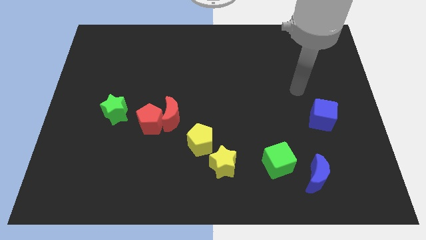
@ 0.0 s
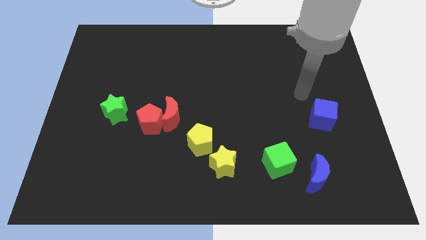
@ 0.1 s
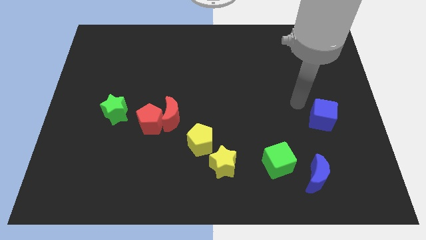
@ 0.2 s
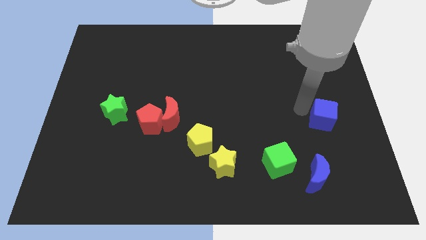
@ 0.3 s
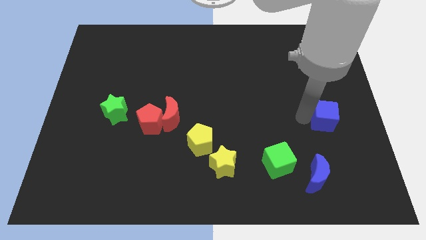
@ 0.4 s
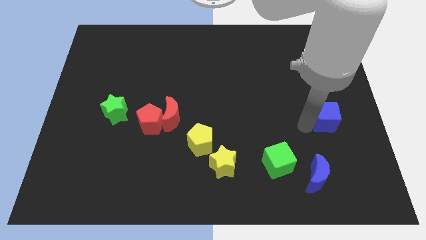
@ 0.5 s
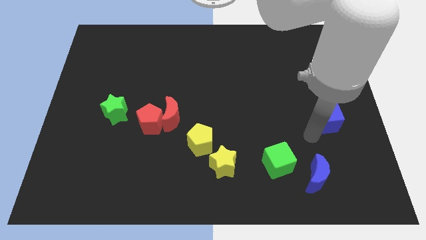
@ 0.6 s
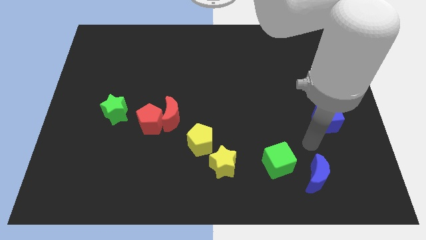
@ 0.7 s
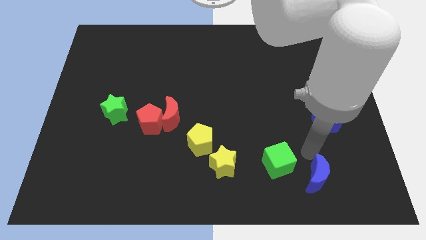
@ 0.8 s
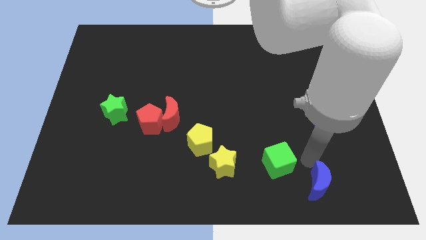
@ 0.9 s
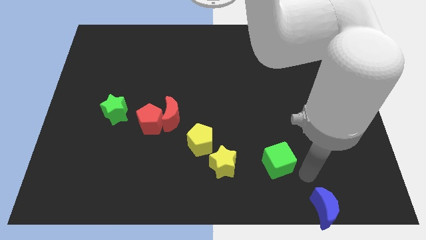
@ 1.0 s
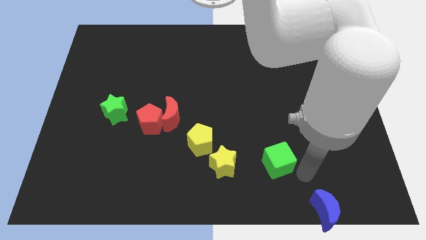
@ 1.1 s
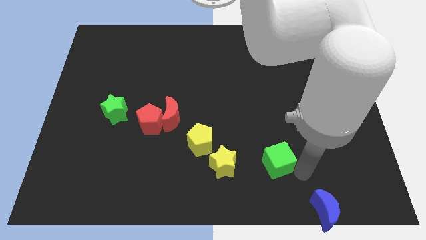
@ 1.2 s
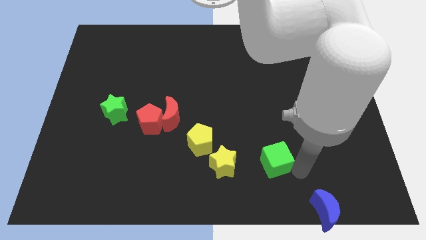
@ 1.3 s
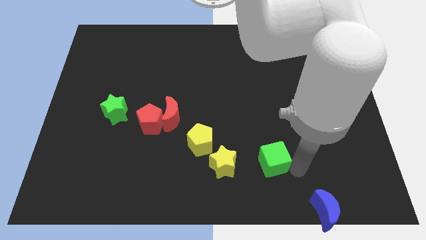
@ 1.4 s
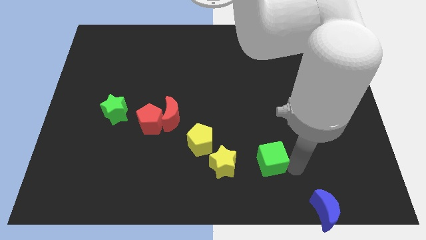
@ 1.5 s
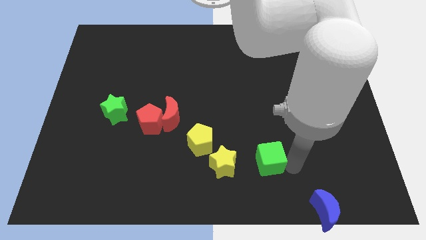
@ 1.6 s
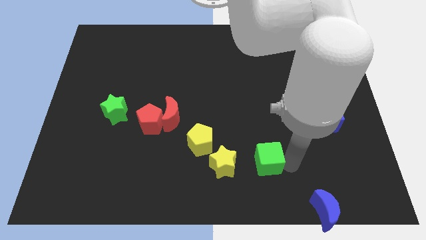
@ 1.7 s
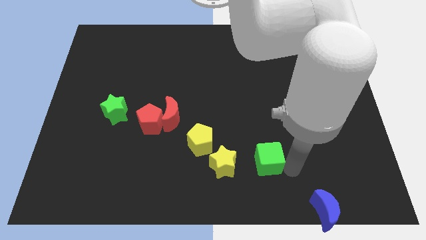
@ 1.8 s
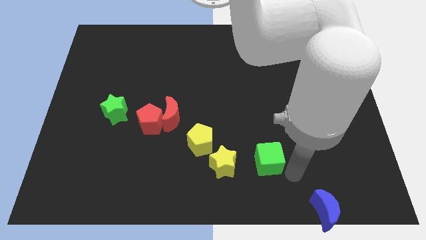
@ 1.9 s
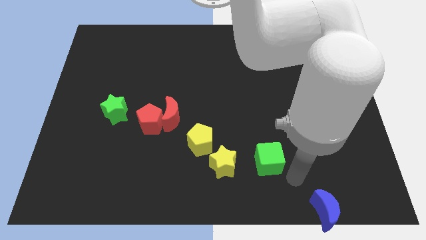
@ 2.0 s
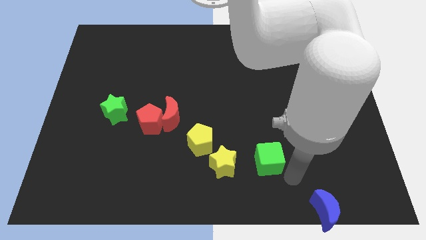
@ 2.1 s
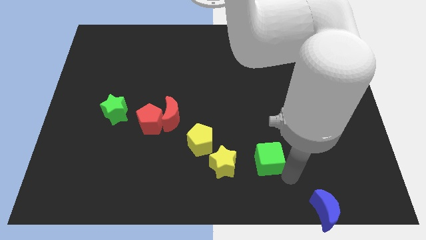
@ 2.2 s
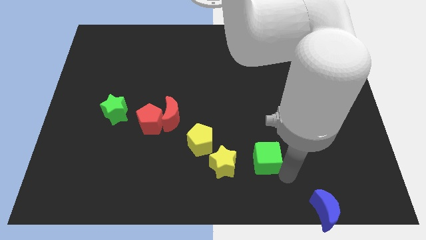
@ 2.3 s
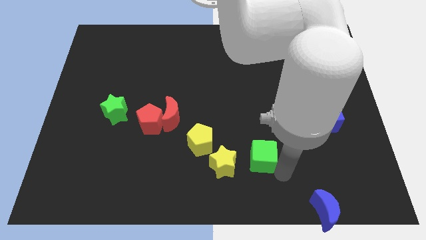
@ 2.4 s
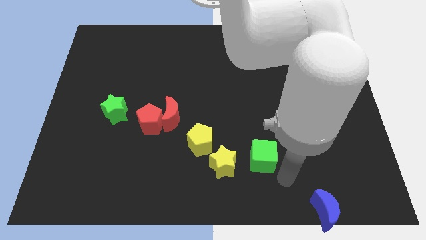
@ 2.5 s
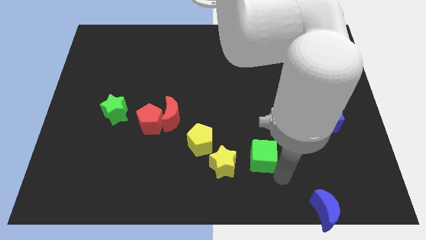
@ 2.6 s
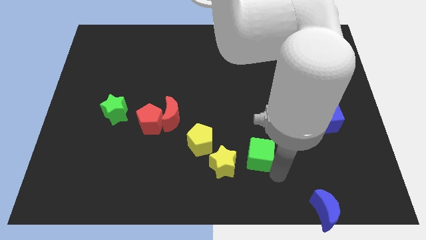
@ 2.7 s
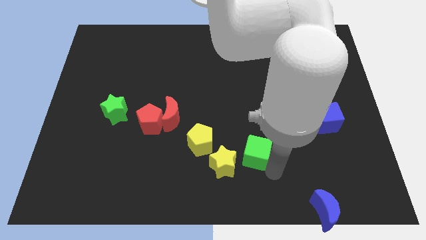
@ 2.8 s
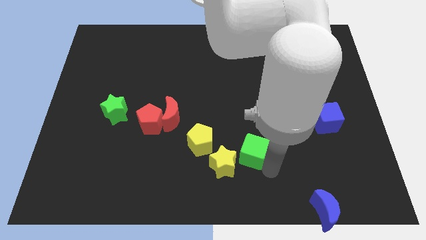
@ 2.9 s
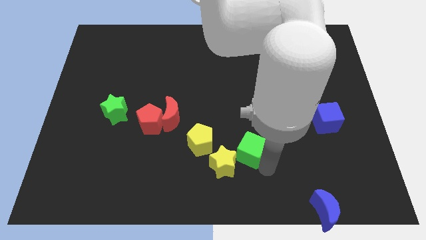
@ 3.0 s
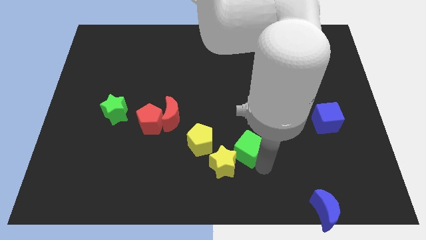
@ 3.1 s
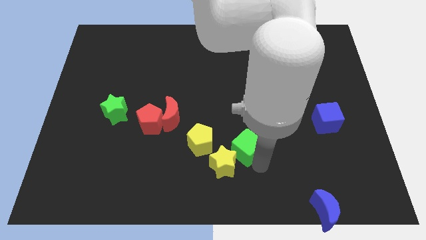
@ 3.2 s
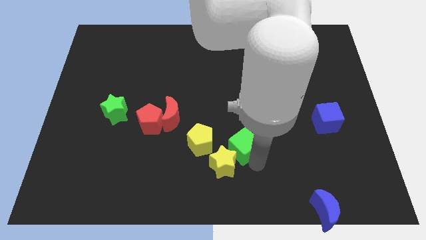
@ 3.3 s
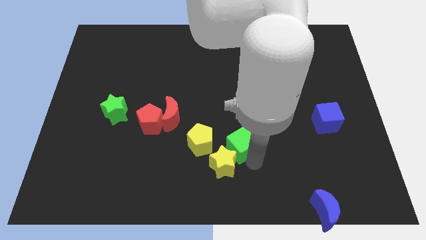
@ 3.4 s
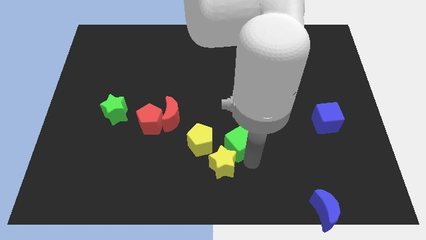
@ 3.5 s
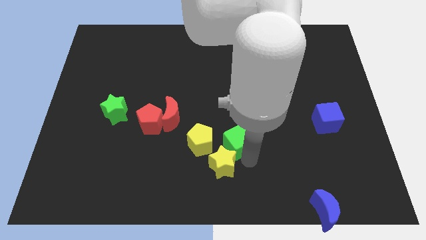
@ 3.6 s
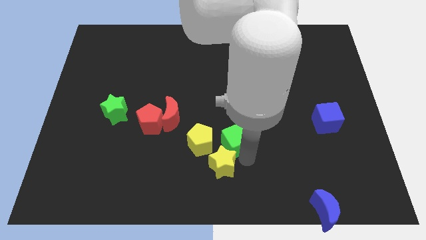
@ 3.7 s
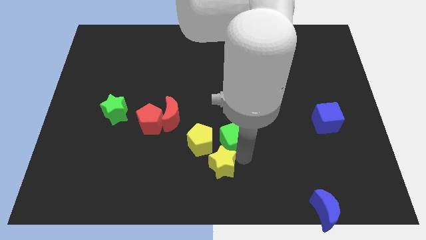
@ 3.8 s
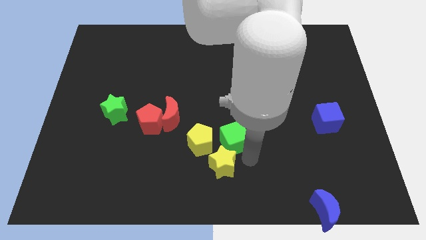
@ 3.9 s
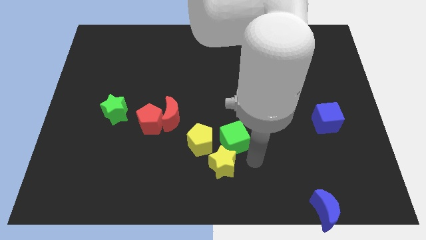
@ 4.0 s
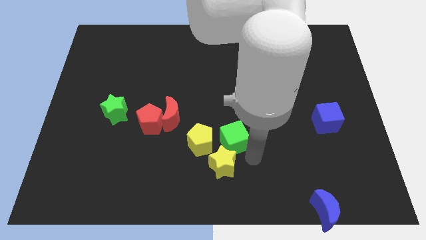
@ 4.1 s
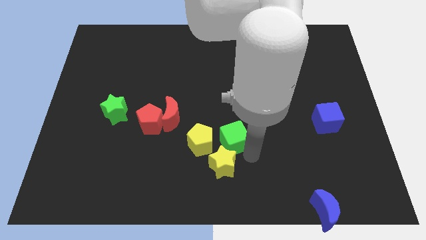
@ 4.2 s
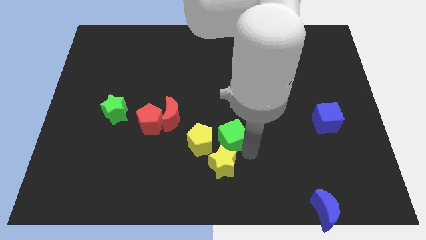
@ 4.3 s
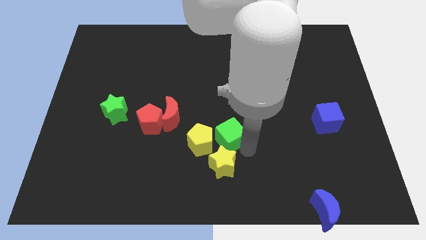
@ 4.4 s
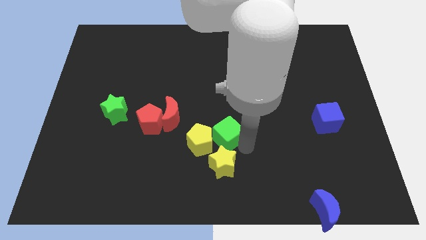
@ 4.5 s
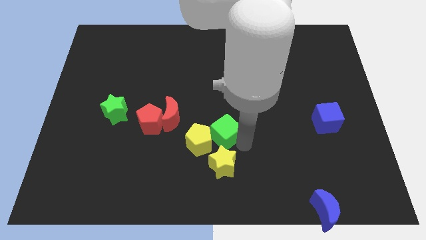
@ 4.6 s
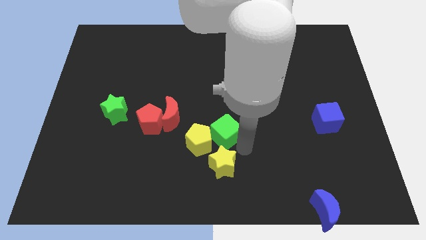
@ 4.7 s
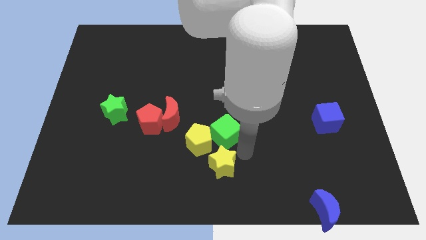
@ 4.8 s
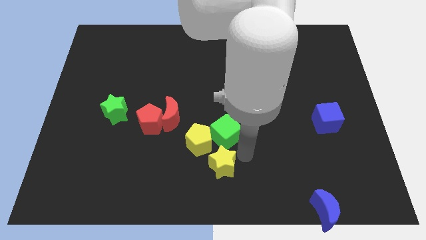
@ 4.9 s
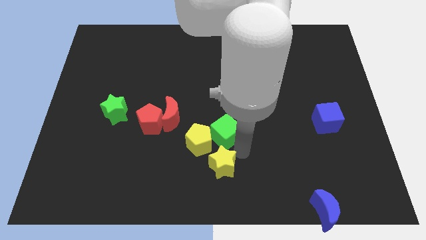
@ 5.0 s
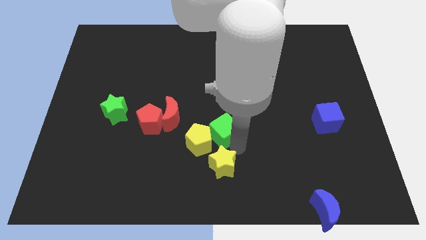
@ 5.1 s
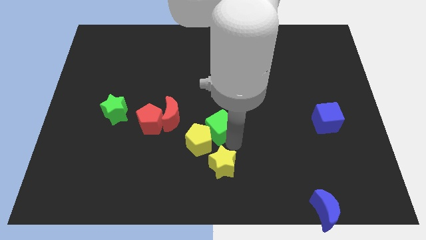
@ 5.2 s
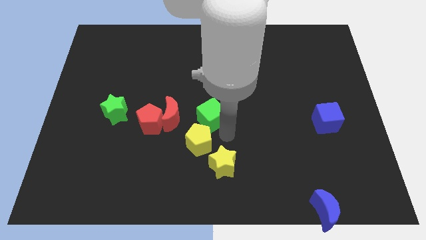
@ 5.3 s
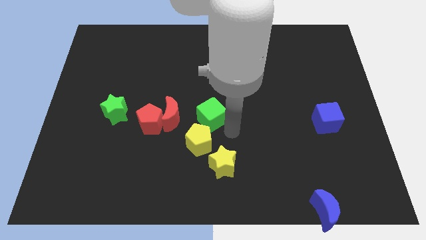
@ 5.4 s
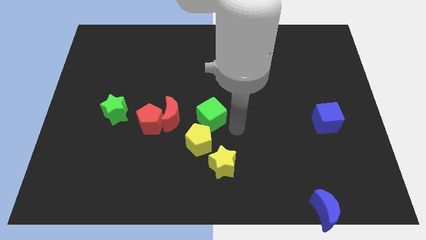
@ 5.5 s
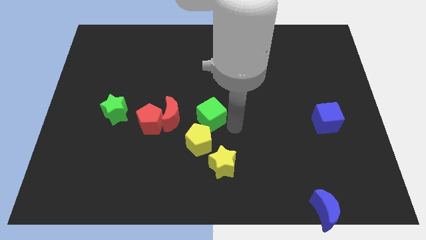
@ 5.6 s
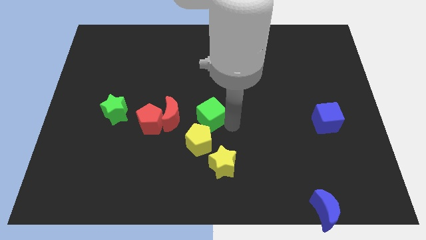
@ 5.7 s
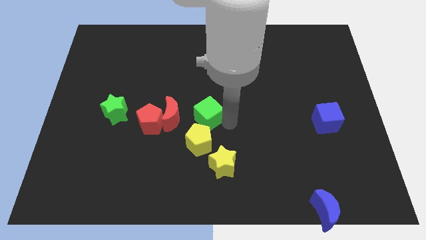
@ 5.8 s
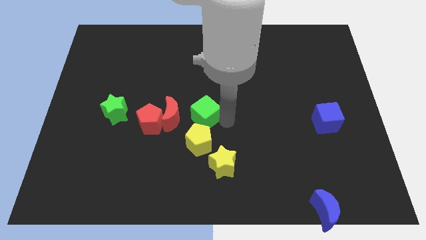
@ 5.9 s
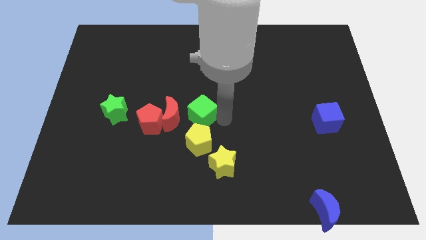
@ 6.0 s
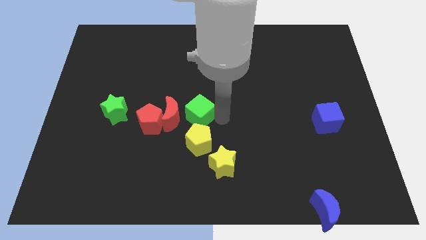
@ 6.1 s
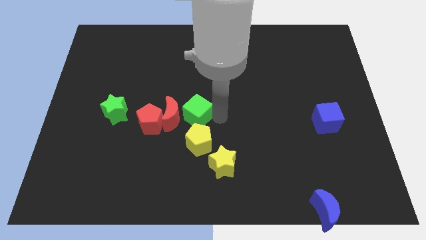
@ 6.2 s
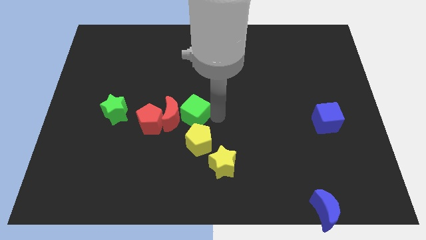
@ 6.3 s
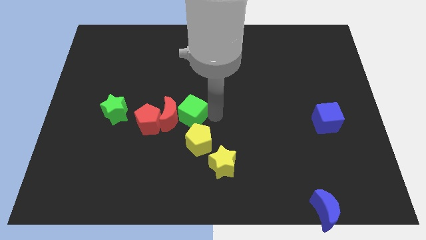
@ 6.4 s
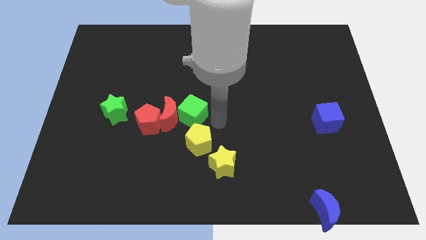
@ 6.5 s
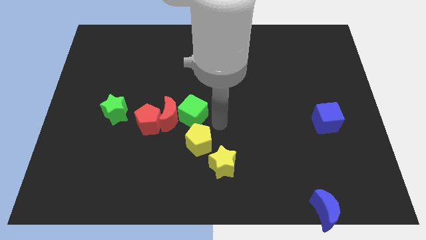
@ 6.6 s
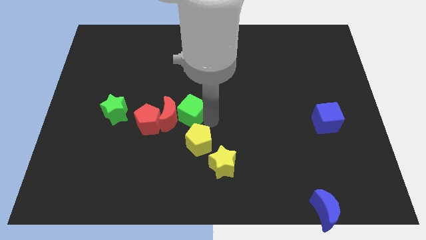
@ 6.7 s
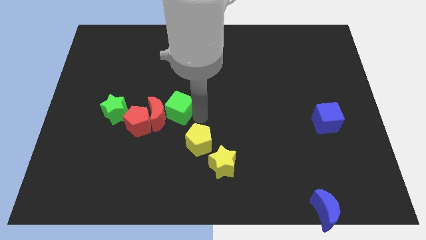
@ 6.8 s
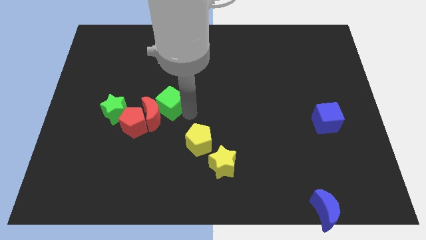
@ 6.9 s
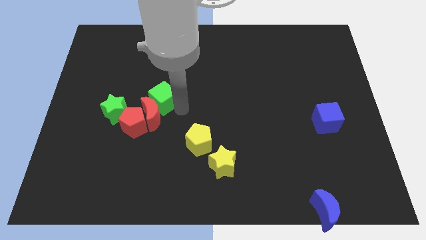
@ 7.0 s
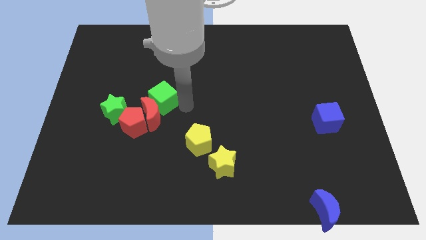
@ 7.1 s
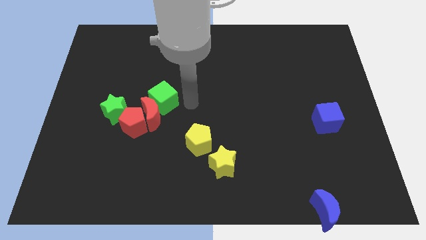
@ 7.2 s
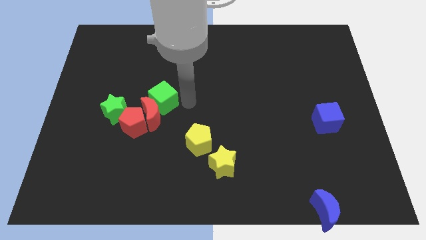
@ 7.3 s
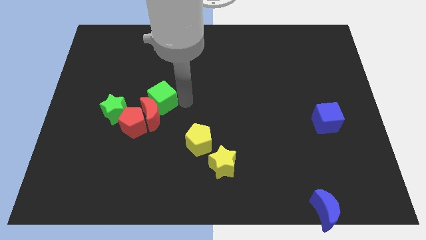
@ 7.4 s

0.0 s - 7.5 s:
put the green cube to the top left side of the red moon
